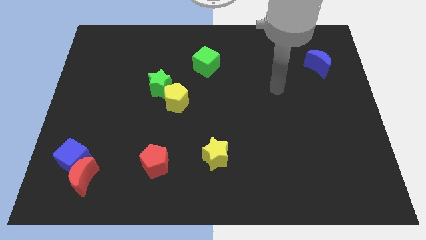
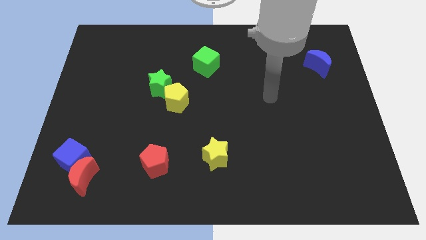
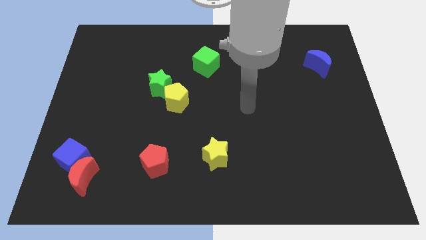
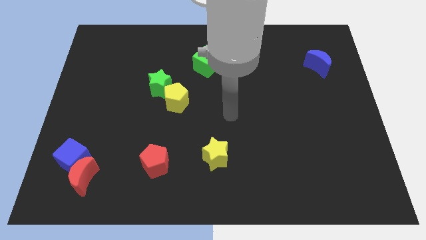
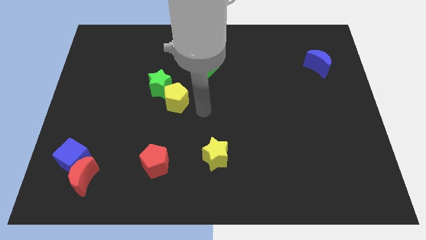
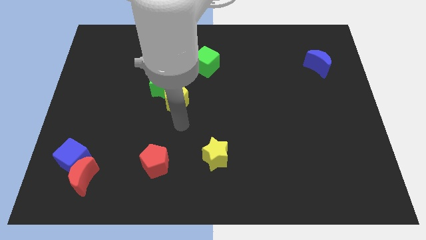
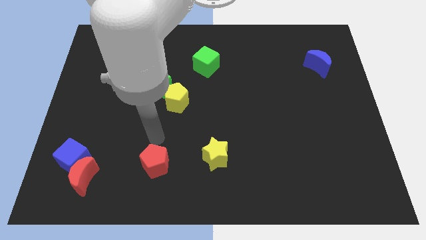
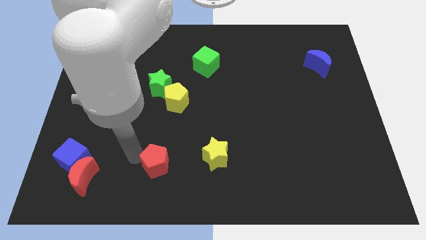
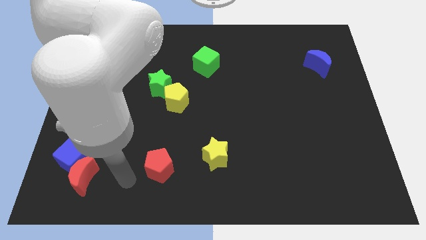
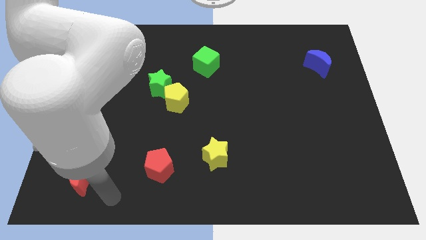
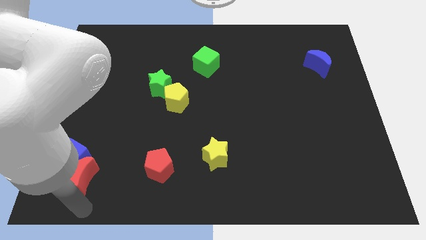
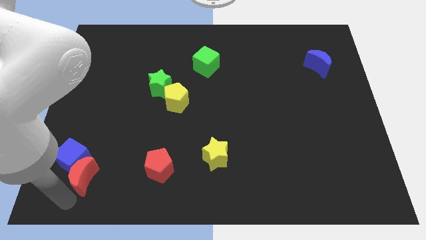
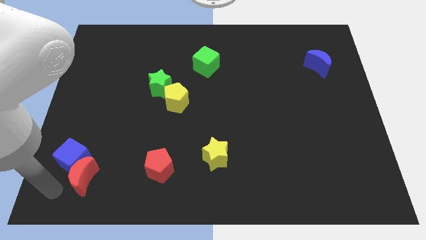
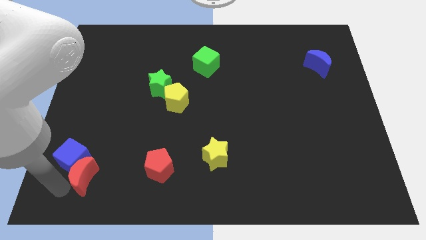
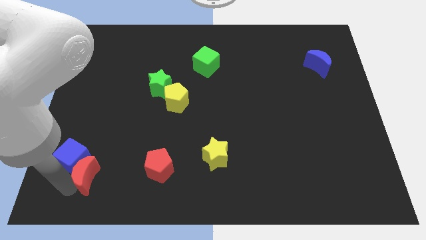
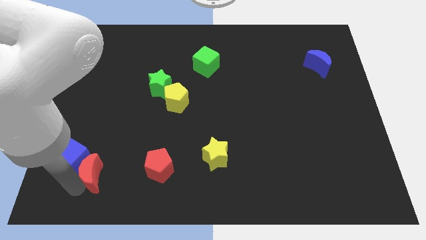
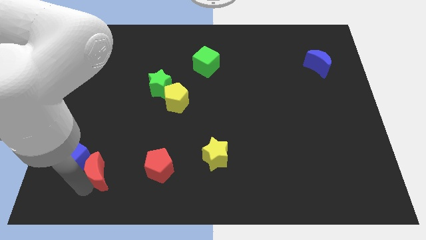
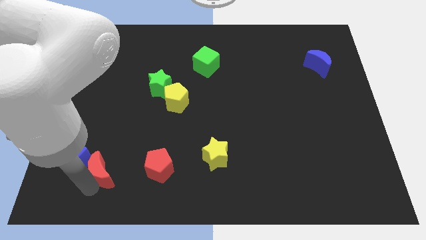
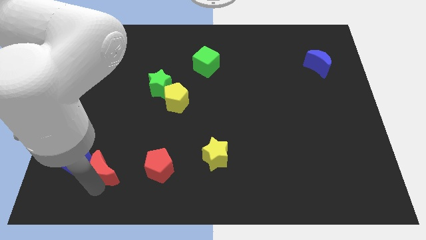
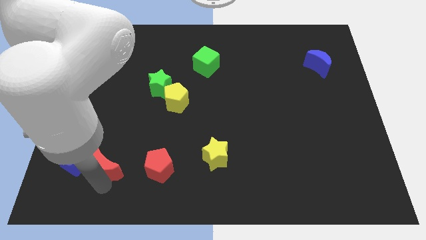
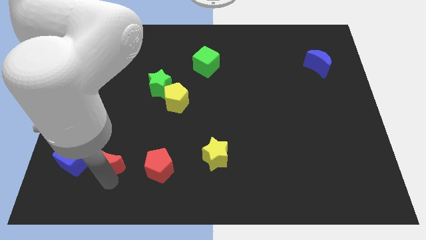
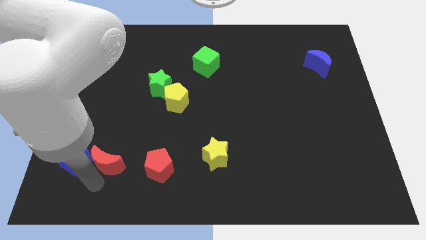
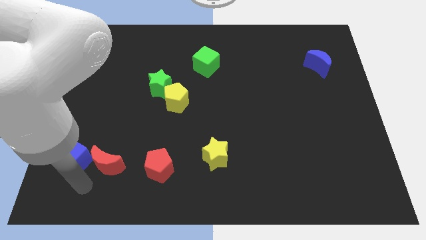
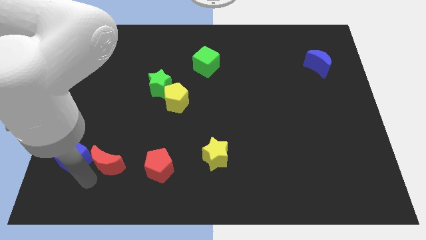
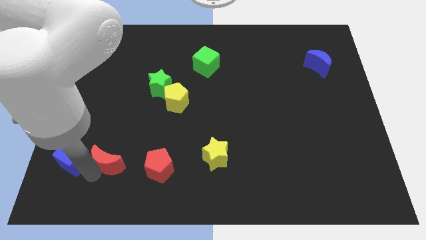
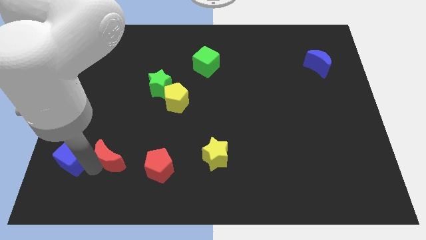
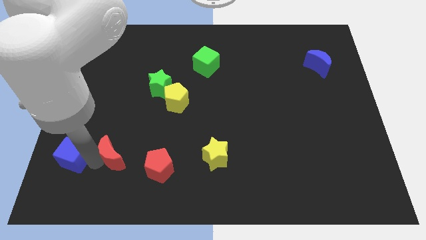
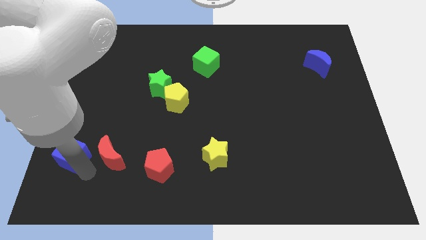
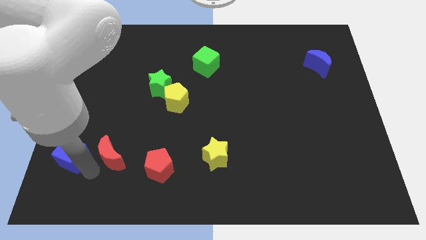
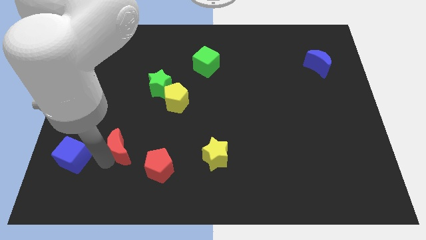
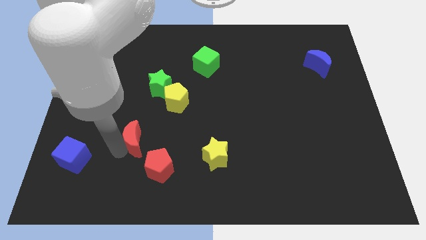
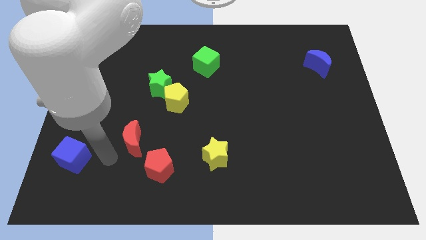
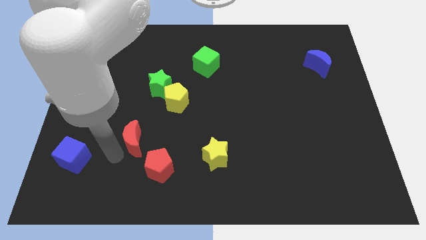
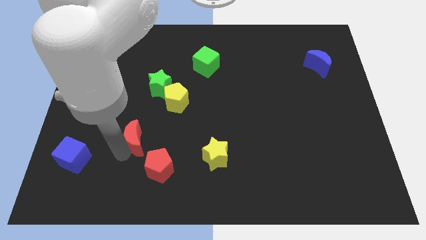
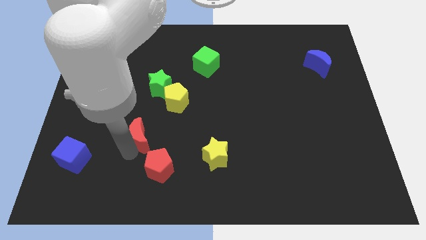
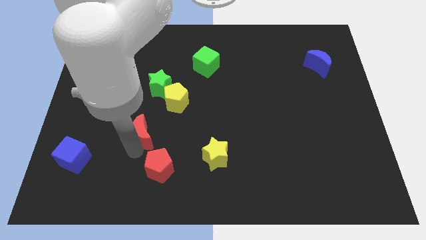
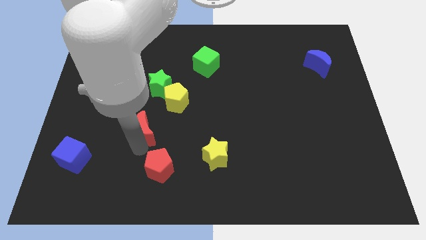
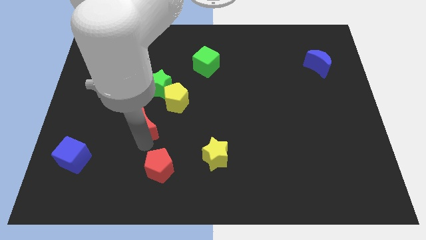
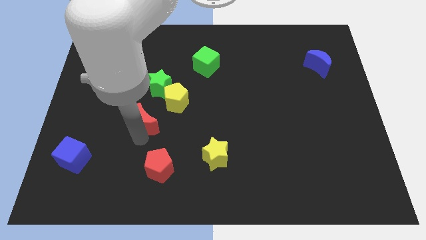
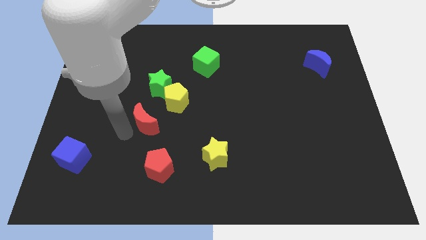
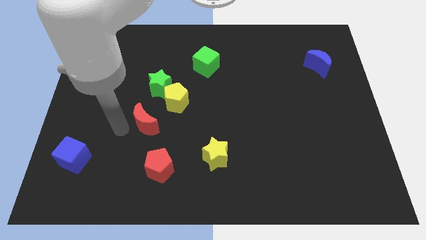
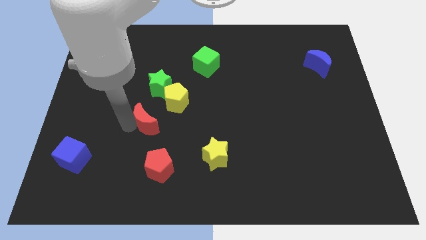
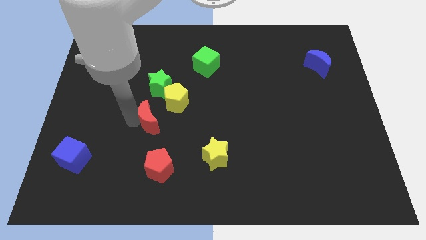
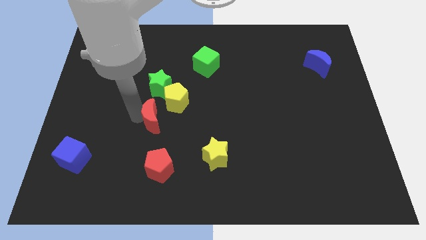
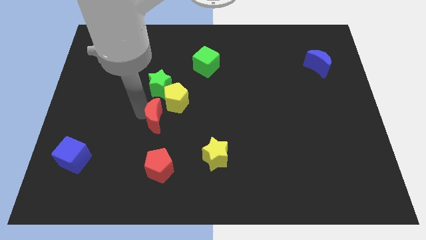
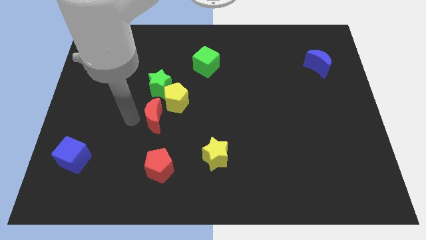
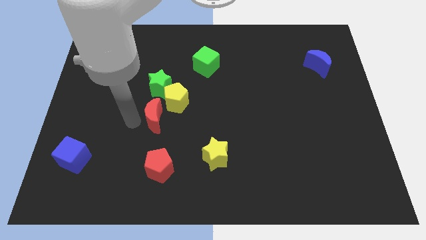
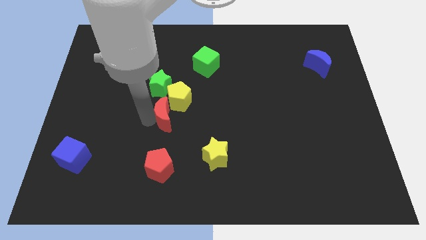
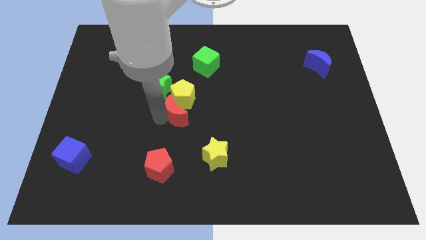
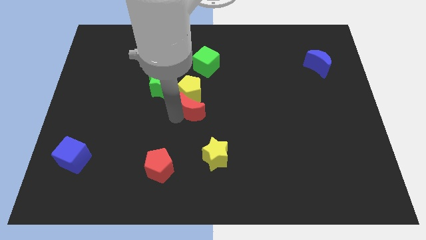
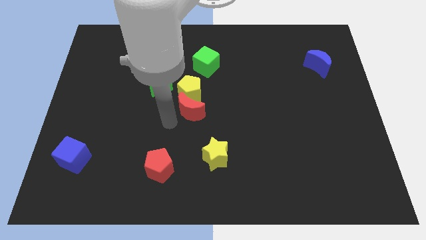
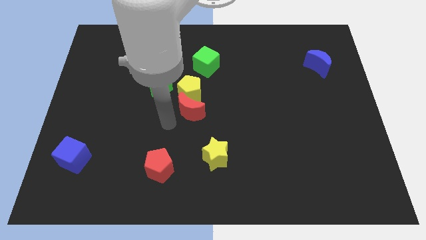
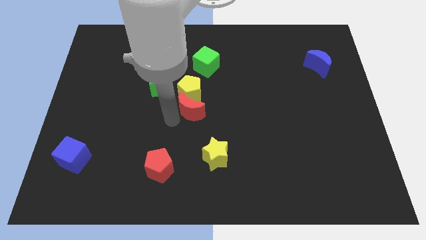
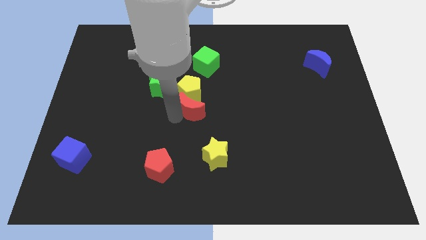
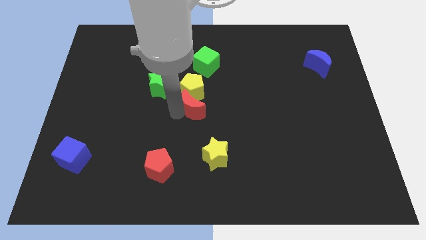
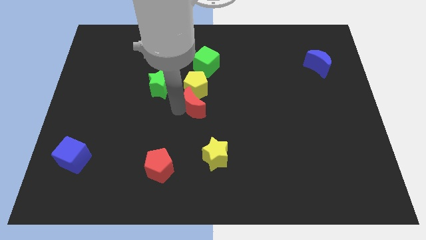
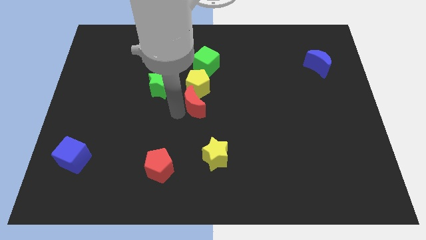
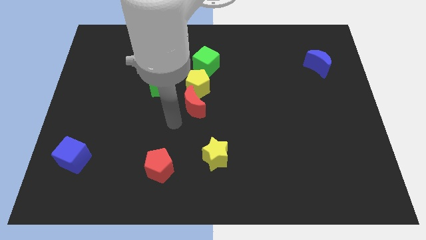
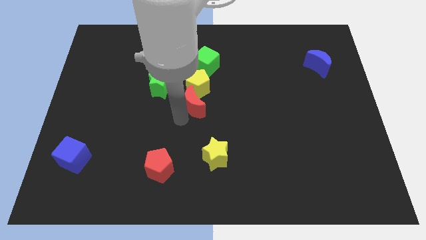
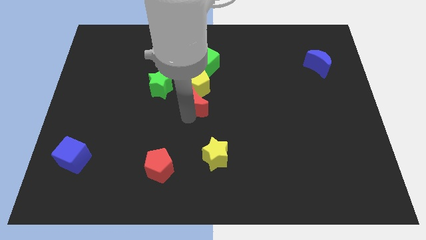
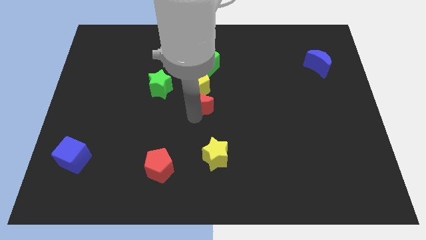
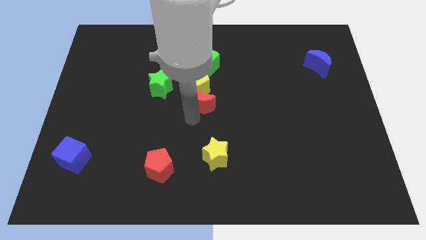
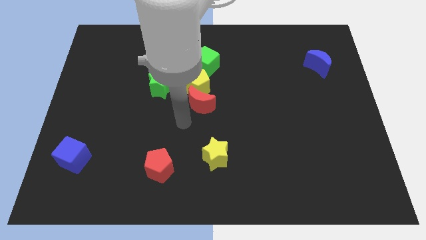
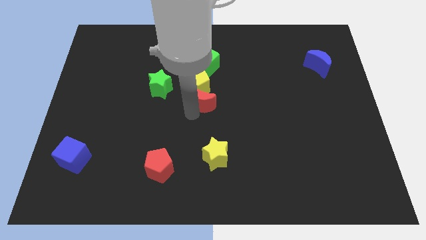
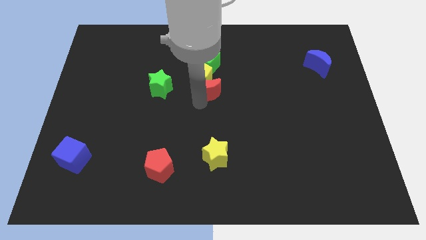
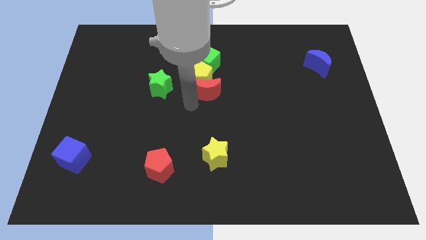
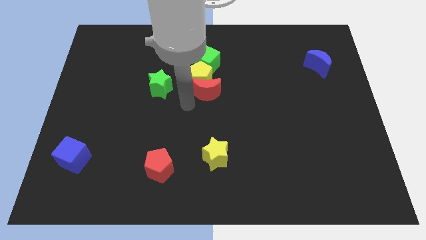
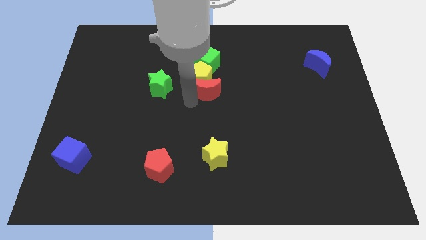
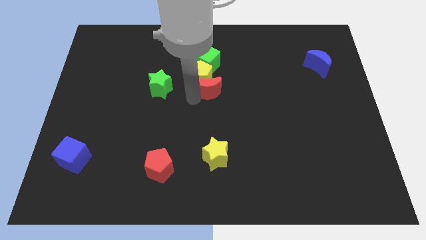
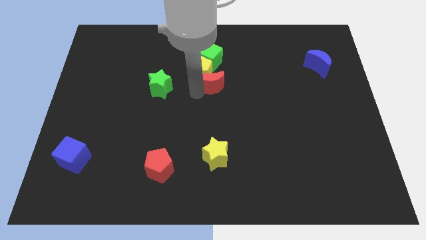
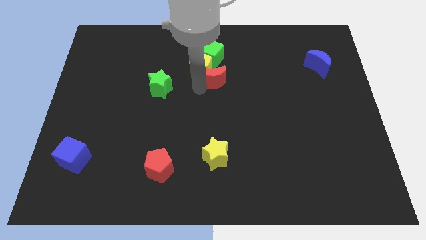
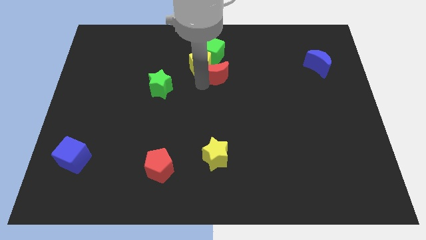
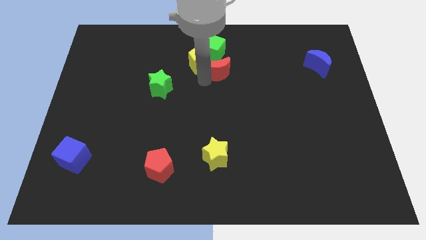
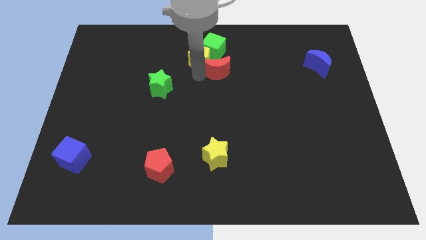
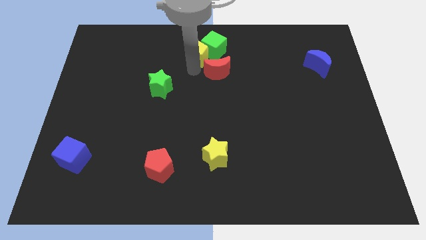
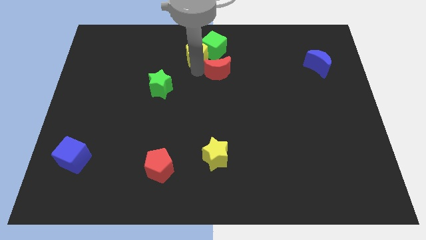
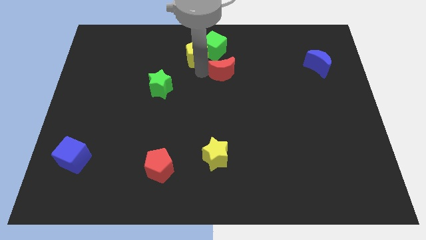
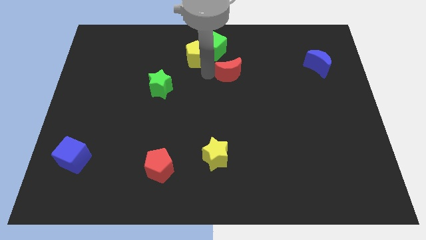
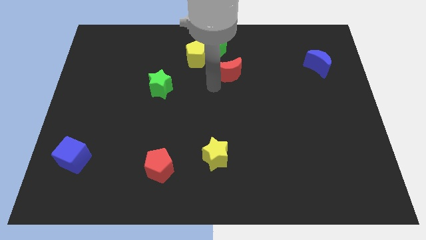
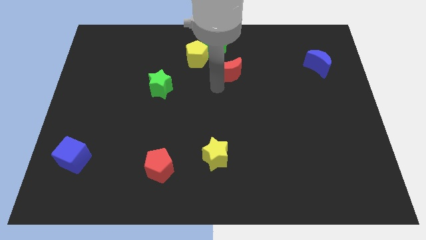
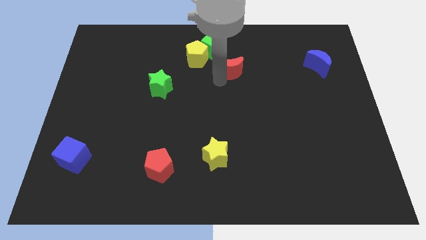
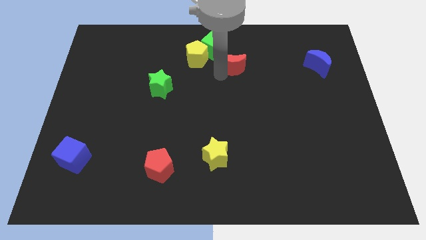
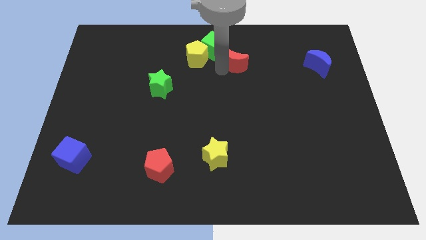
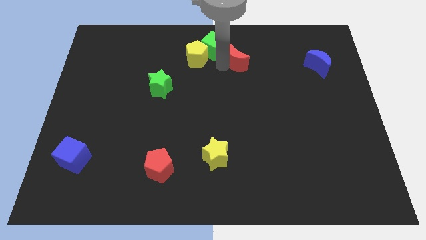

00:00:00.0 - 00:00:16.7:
move the red moon to the right side of the green cube
